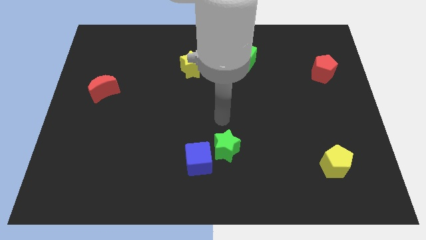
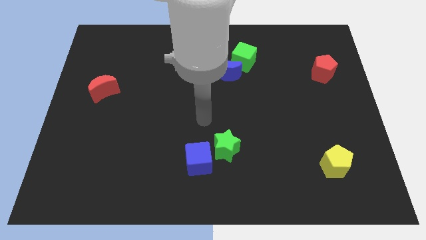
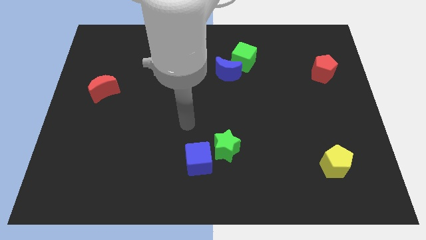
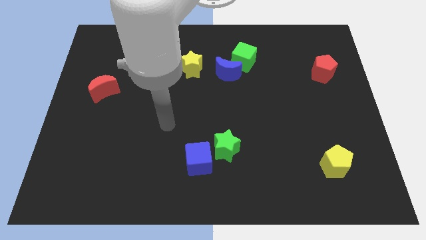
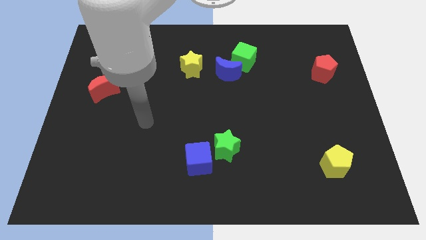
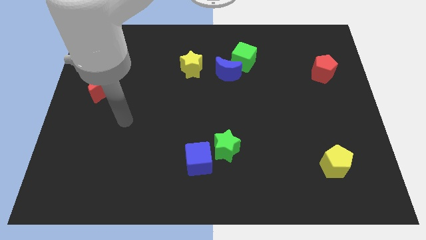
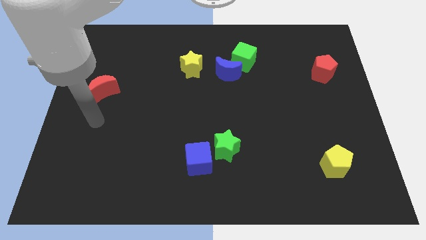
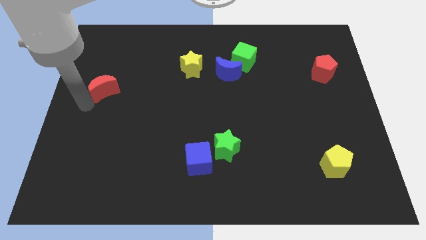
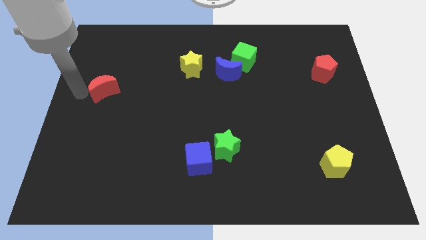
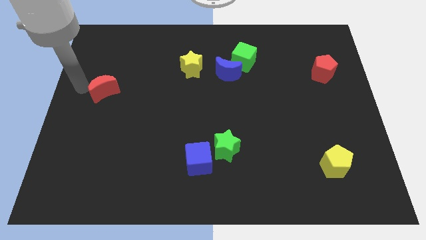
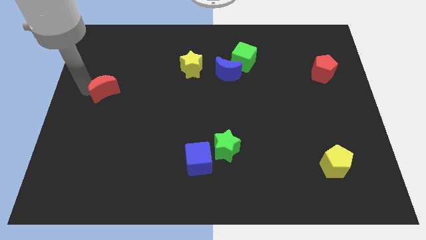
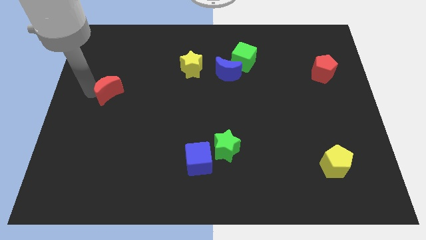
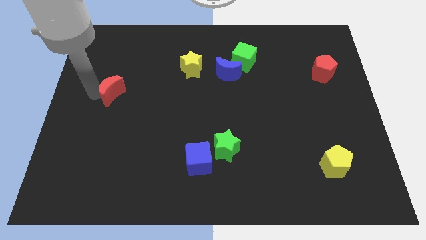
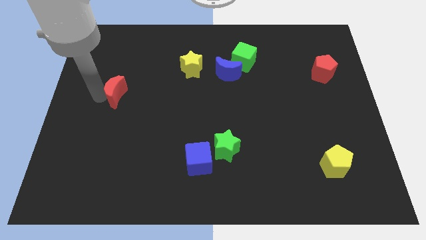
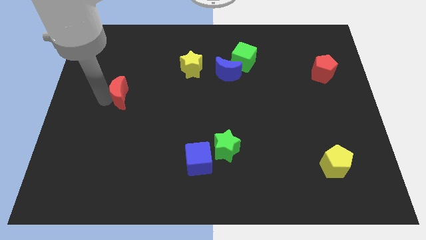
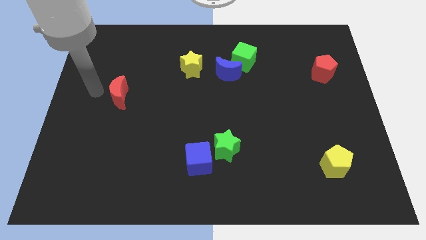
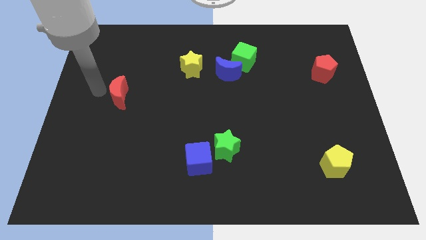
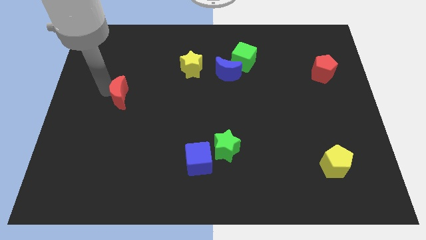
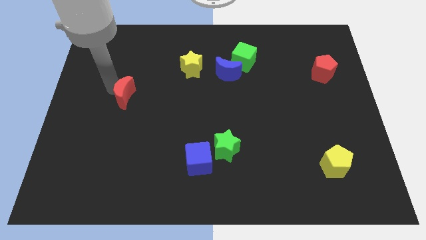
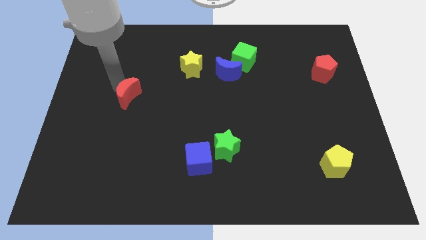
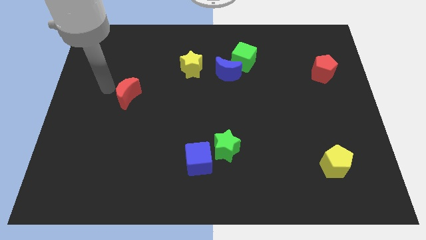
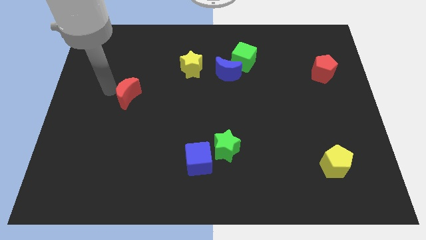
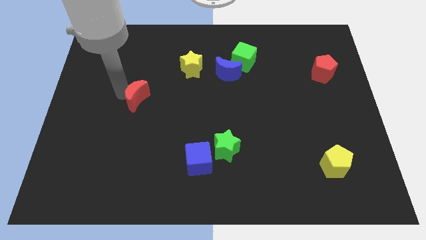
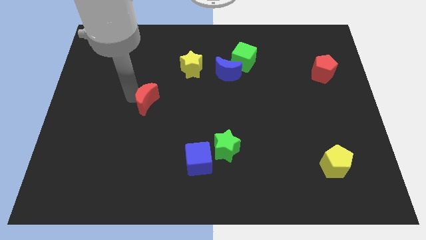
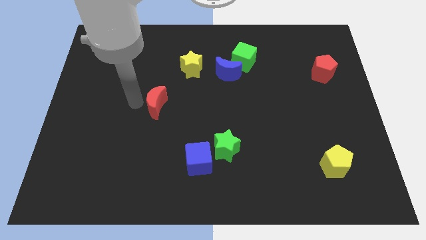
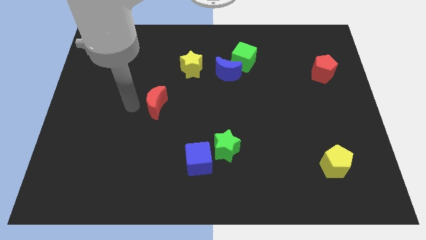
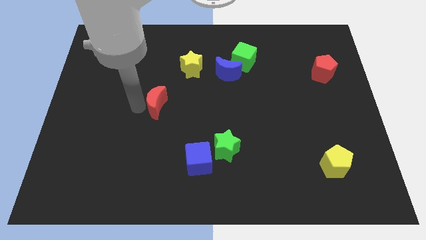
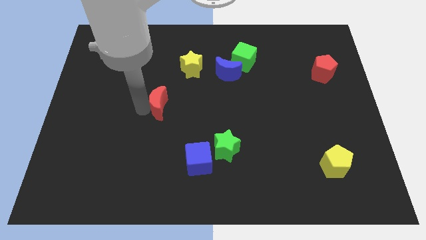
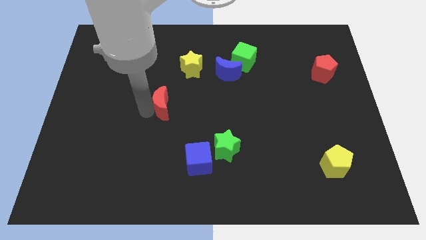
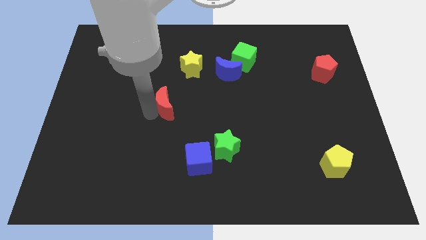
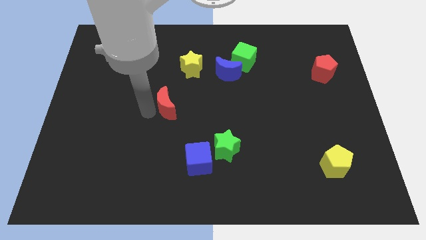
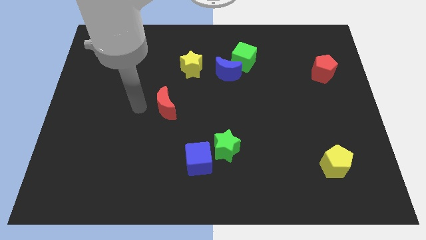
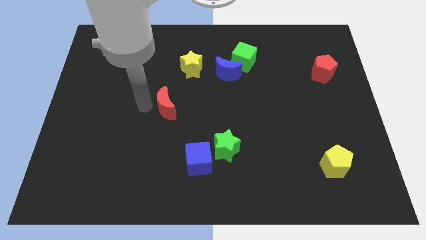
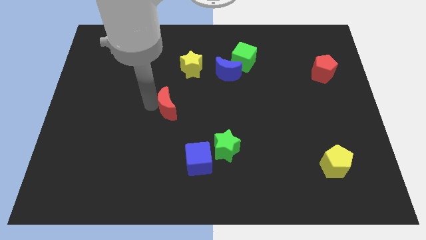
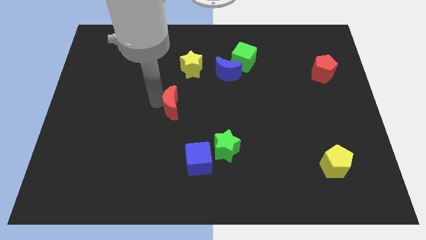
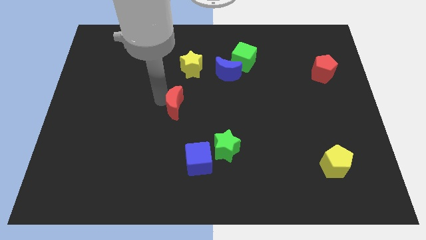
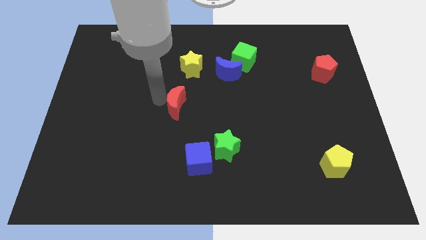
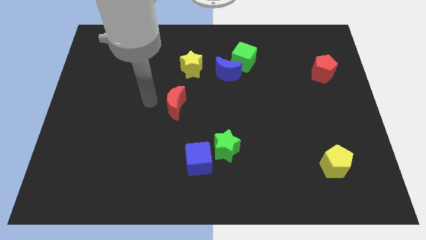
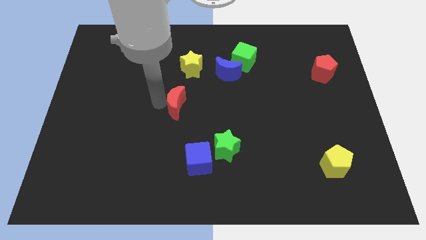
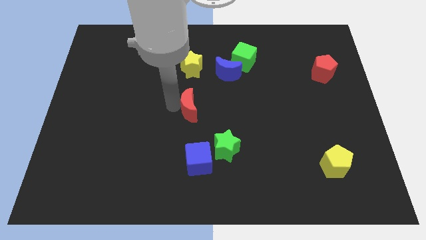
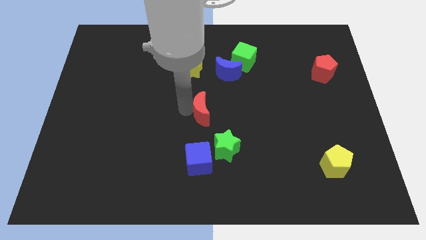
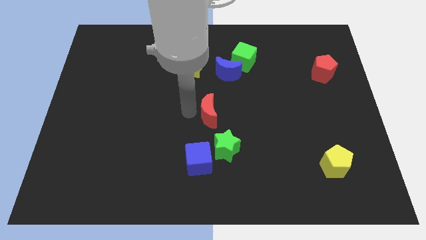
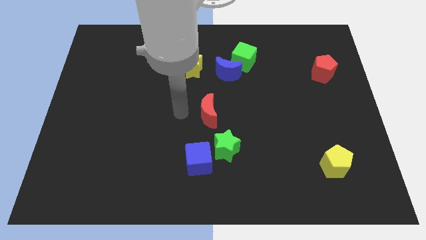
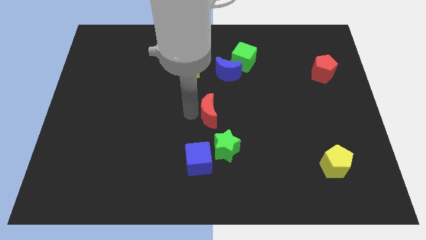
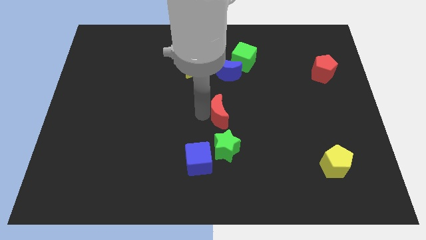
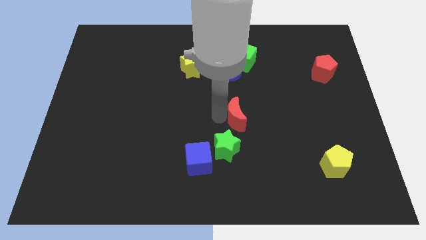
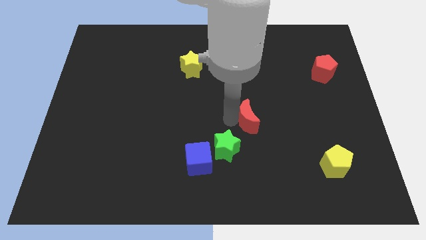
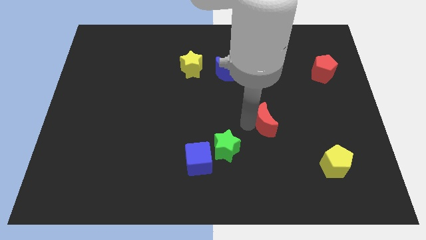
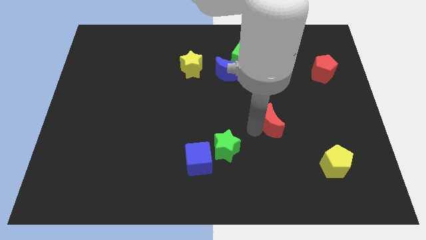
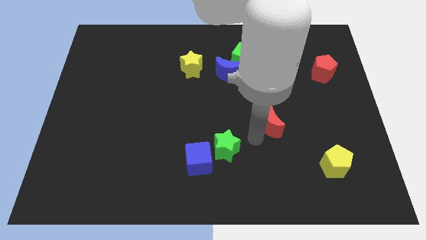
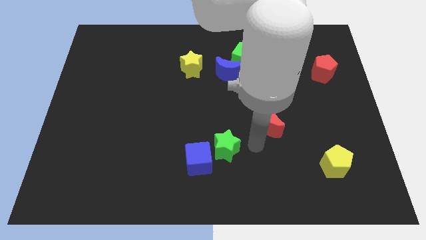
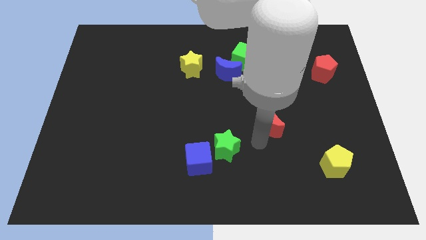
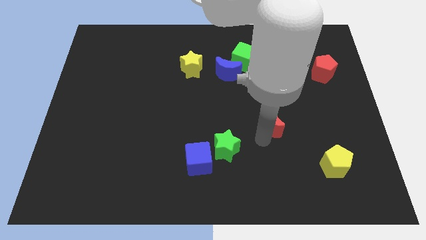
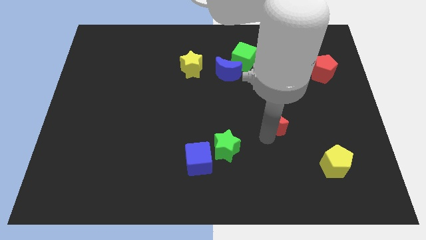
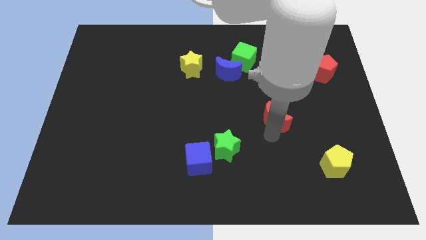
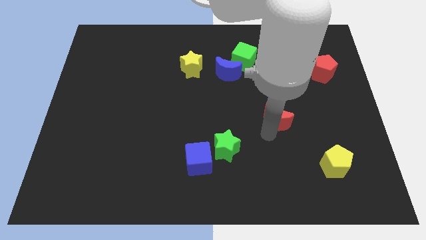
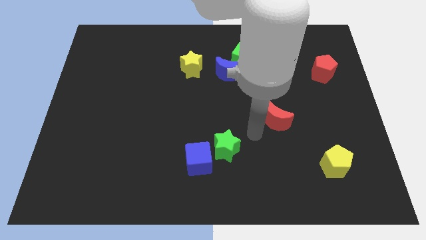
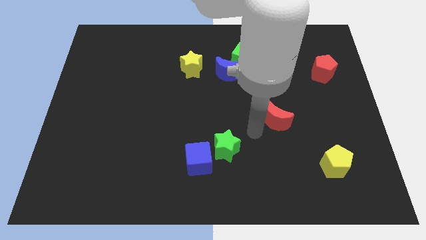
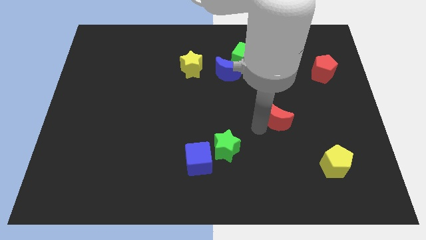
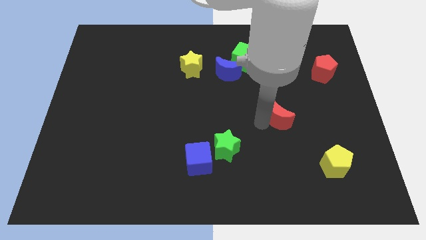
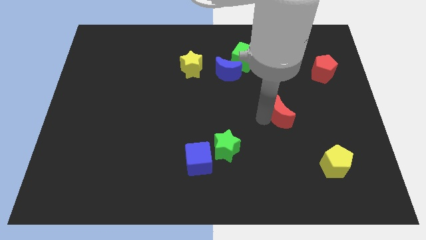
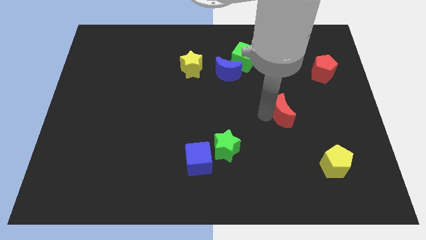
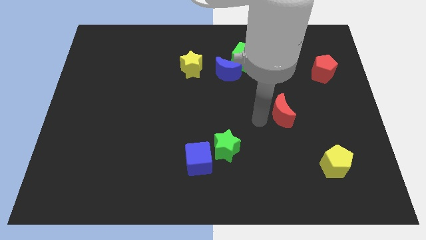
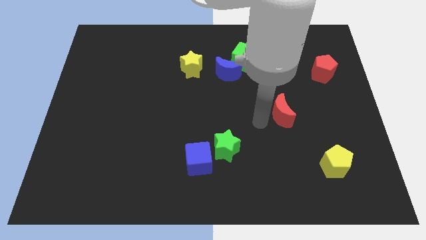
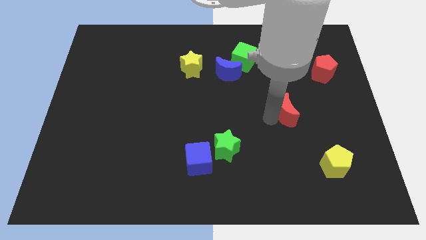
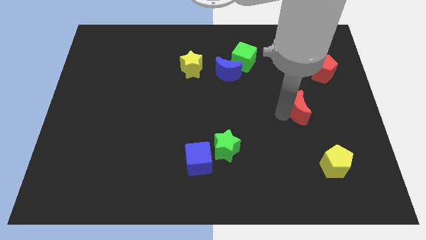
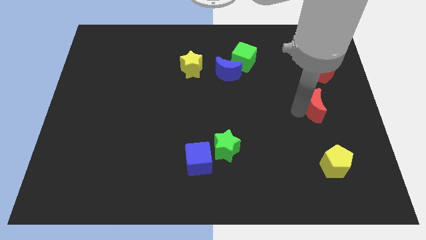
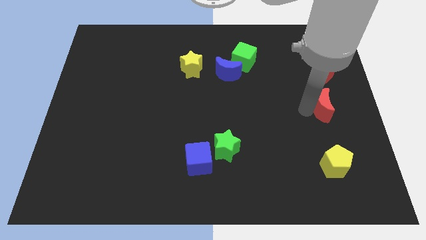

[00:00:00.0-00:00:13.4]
put the red moon to the center right
